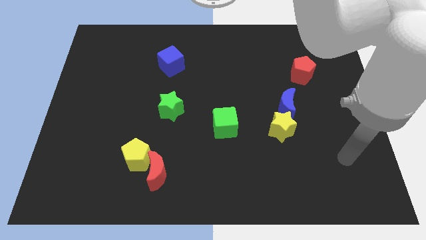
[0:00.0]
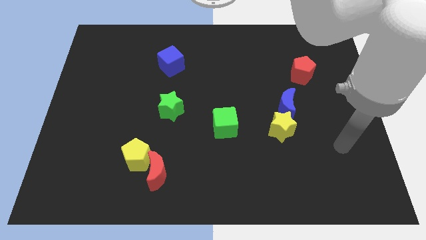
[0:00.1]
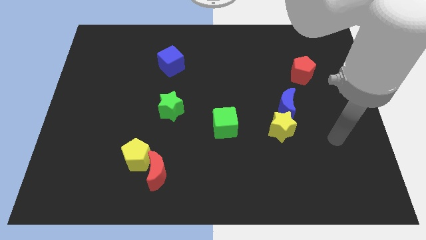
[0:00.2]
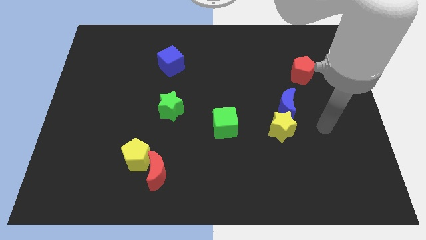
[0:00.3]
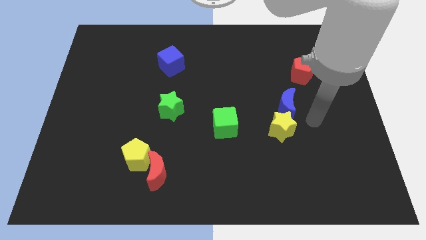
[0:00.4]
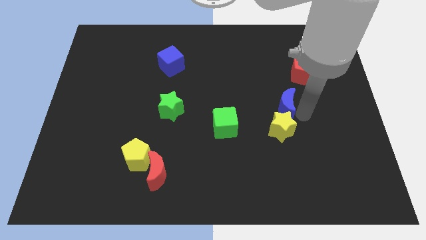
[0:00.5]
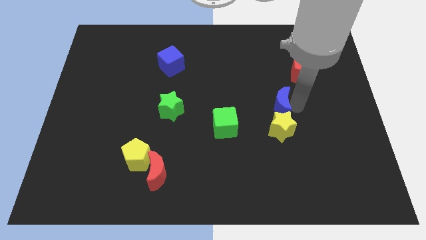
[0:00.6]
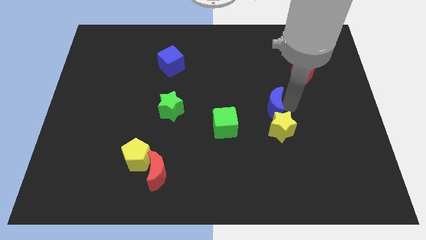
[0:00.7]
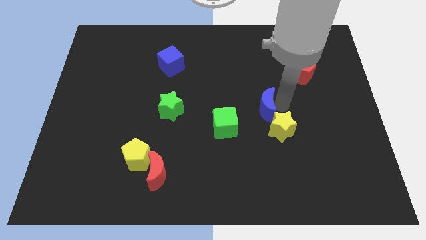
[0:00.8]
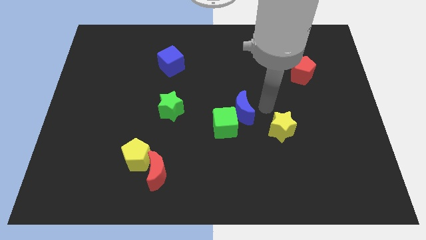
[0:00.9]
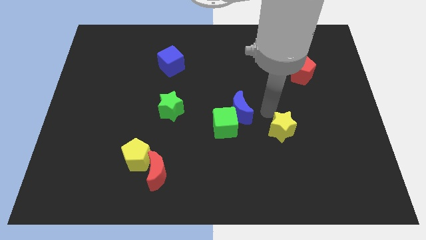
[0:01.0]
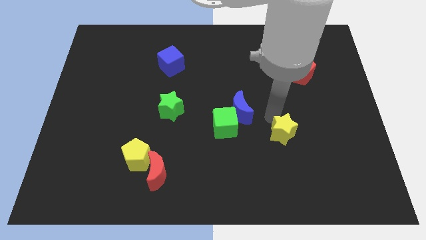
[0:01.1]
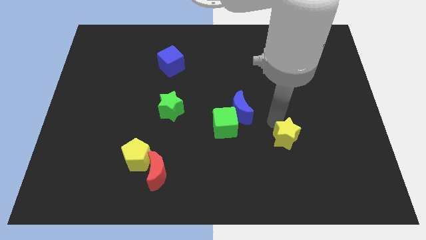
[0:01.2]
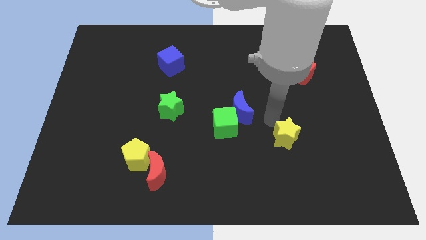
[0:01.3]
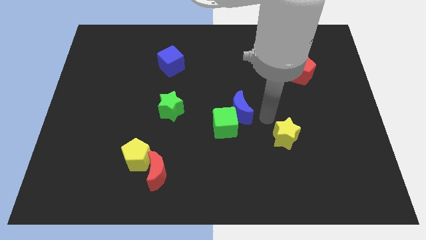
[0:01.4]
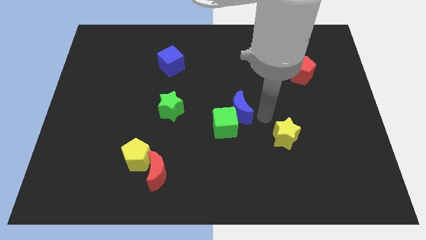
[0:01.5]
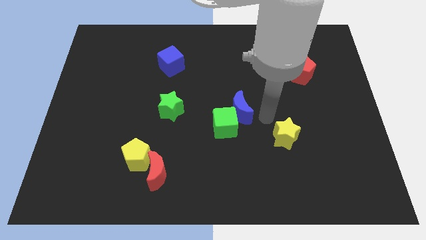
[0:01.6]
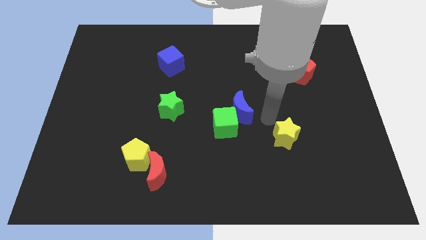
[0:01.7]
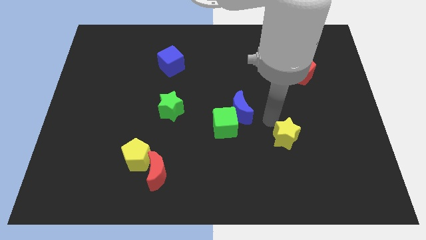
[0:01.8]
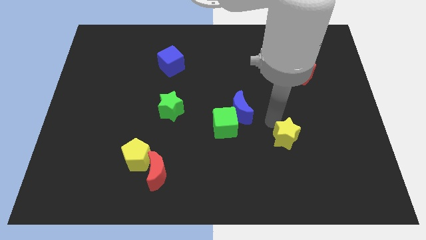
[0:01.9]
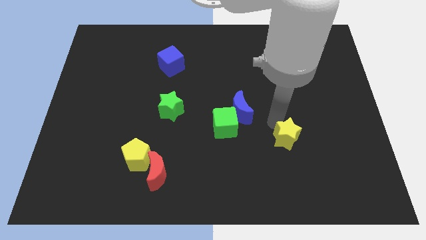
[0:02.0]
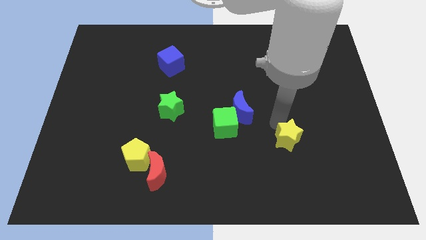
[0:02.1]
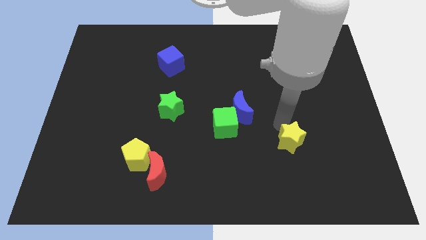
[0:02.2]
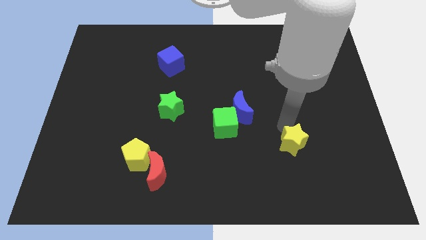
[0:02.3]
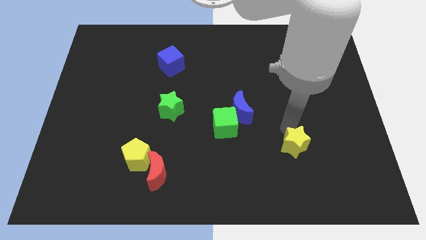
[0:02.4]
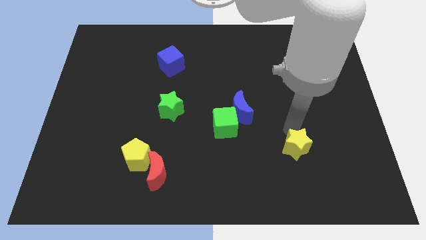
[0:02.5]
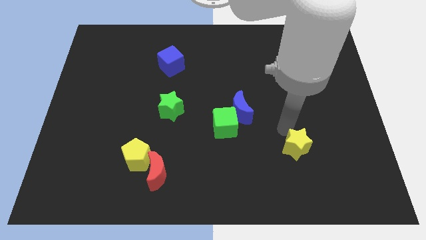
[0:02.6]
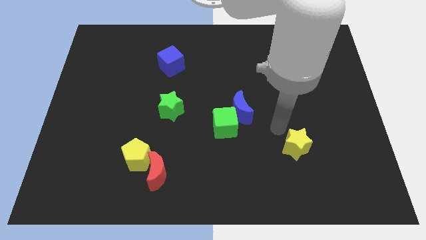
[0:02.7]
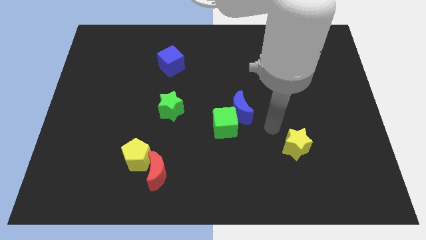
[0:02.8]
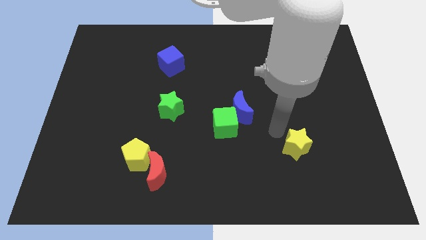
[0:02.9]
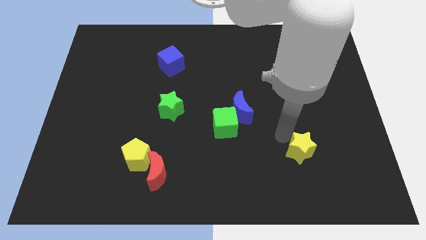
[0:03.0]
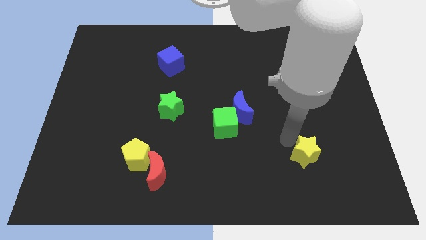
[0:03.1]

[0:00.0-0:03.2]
slide the yellow star a little down and right diagonally

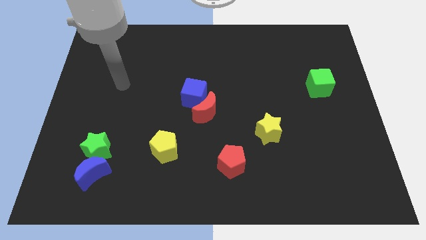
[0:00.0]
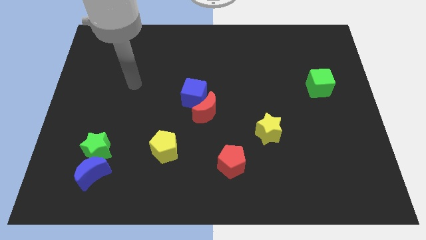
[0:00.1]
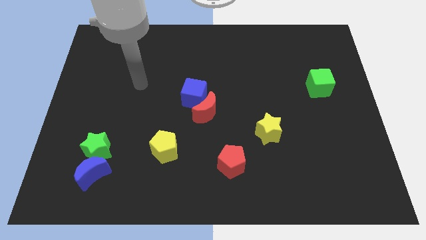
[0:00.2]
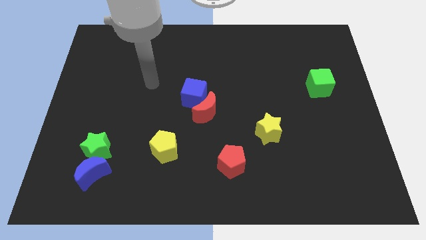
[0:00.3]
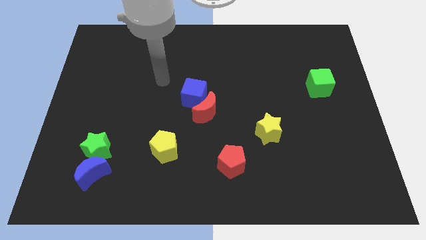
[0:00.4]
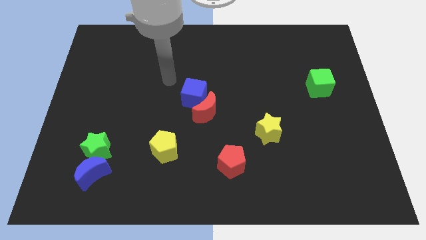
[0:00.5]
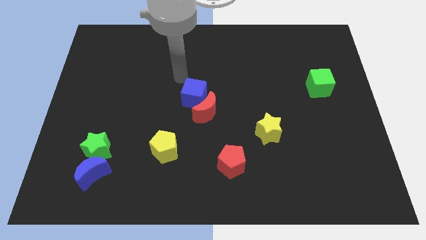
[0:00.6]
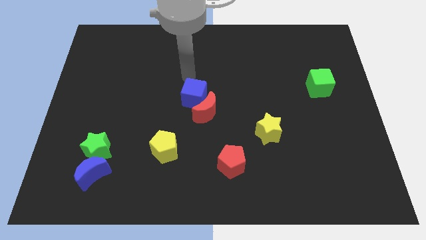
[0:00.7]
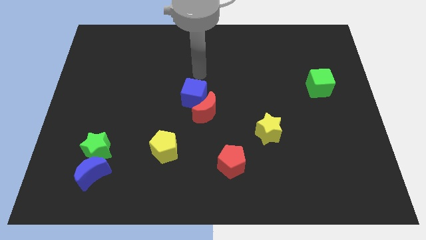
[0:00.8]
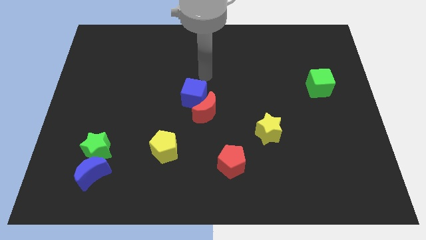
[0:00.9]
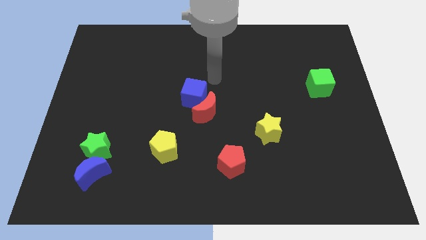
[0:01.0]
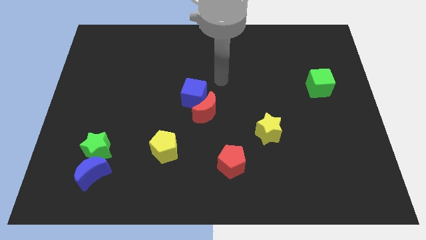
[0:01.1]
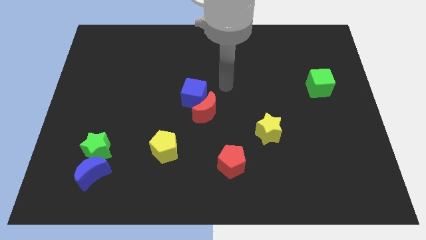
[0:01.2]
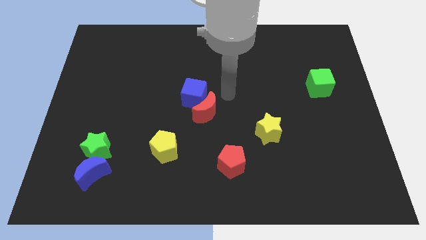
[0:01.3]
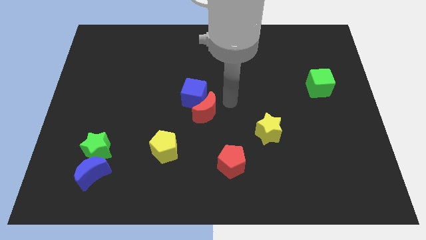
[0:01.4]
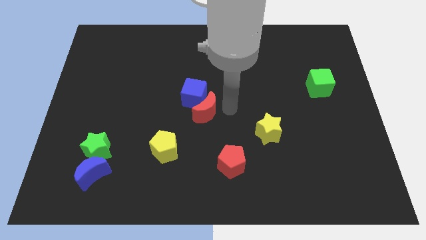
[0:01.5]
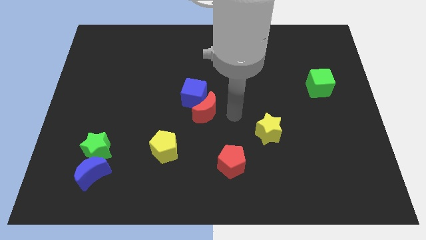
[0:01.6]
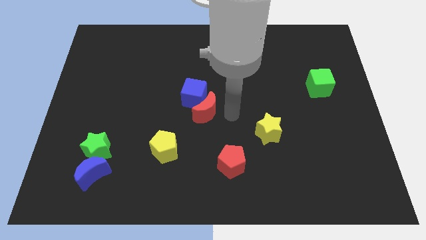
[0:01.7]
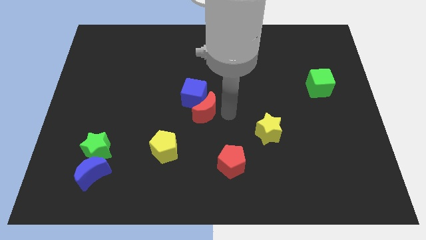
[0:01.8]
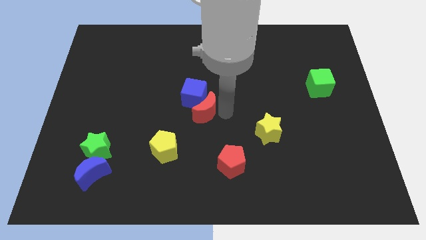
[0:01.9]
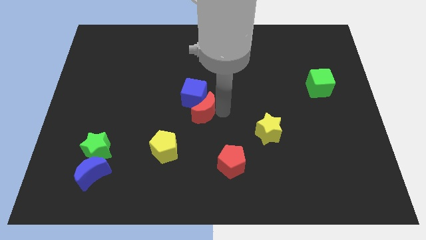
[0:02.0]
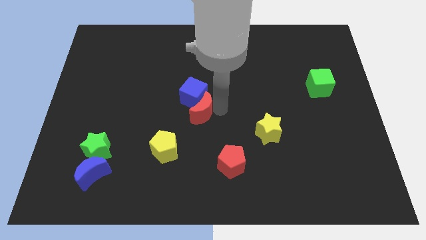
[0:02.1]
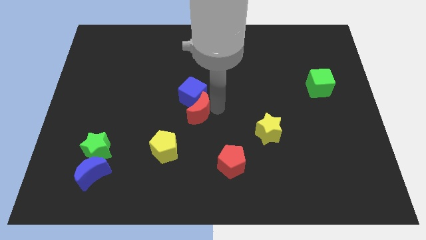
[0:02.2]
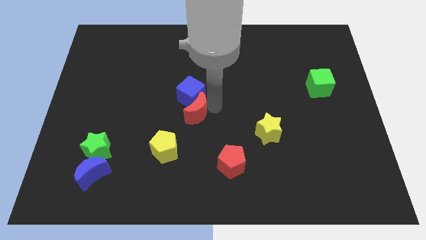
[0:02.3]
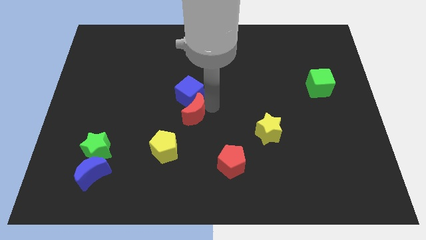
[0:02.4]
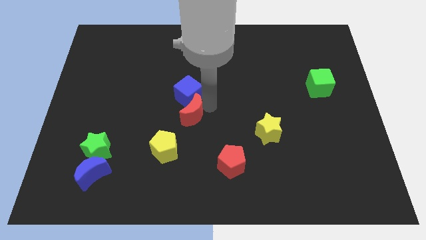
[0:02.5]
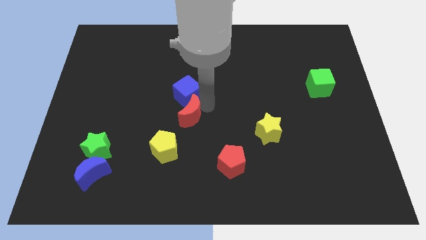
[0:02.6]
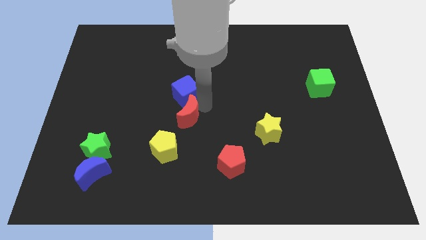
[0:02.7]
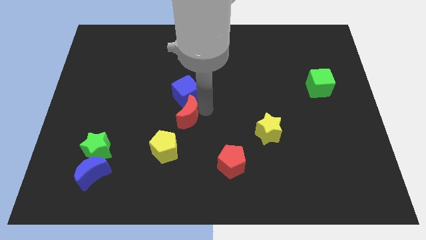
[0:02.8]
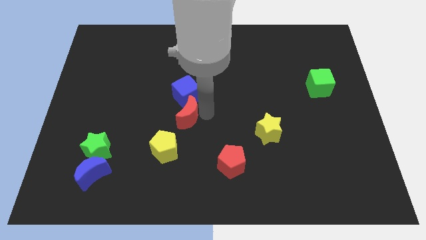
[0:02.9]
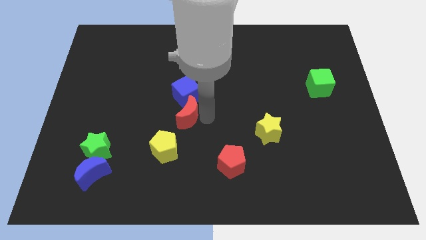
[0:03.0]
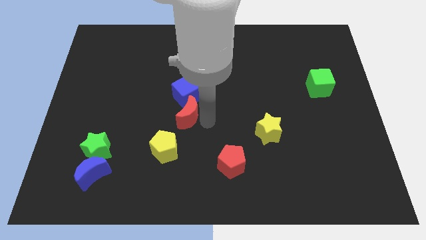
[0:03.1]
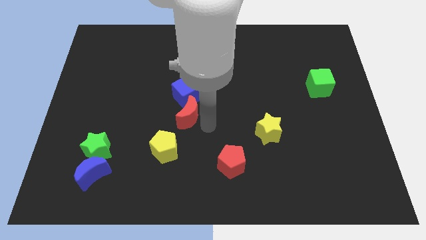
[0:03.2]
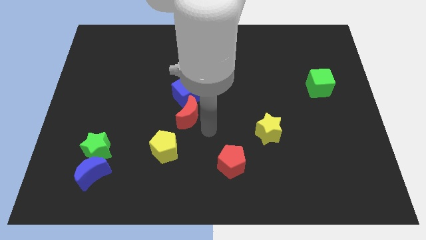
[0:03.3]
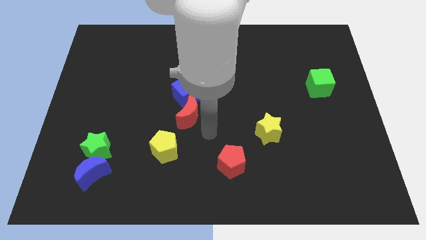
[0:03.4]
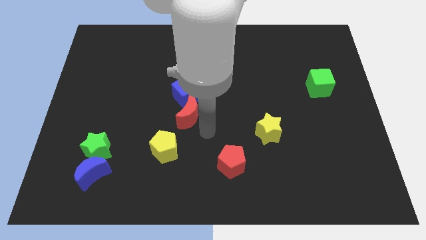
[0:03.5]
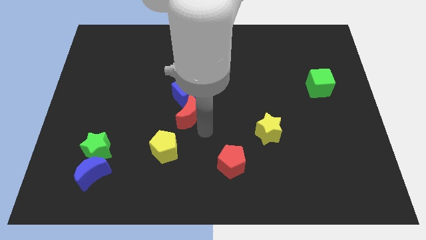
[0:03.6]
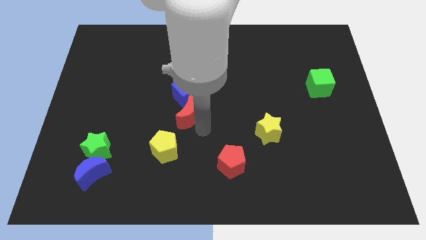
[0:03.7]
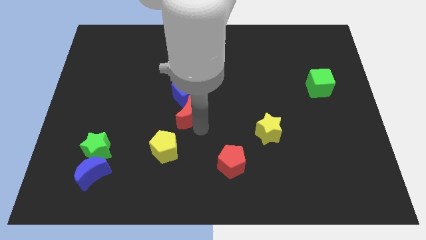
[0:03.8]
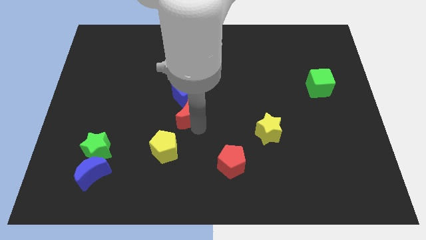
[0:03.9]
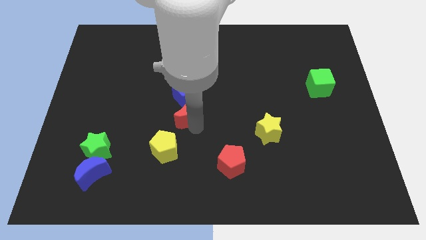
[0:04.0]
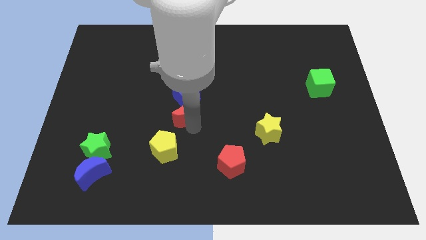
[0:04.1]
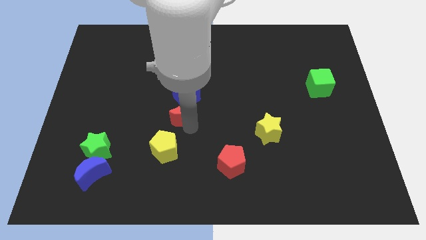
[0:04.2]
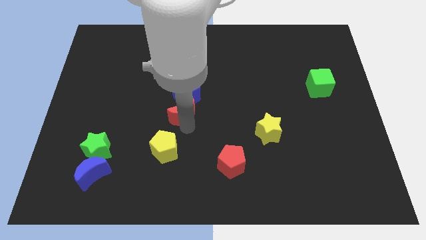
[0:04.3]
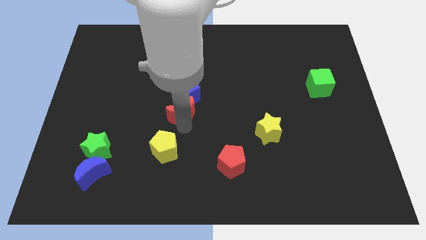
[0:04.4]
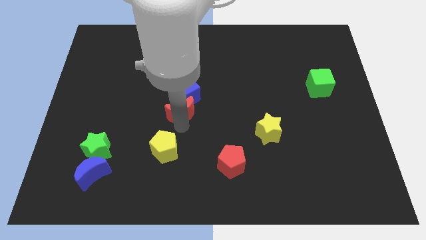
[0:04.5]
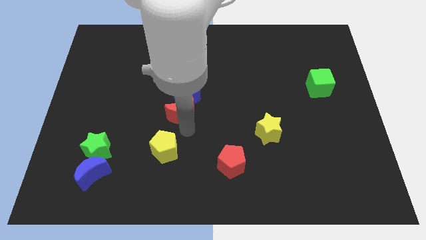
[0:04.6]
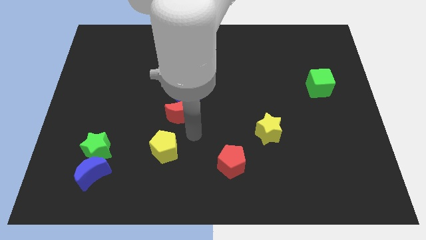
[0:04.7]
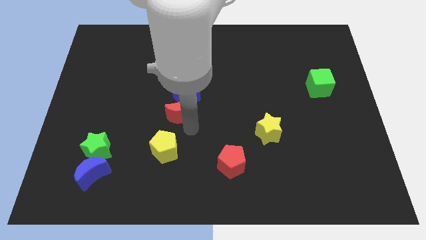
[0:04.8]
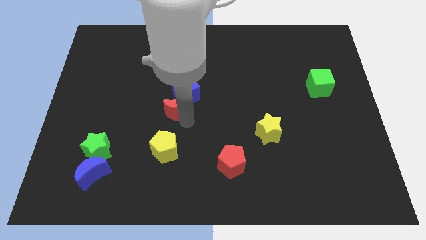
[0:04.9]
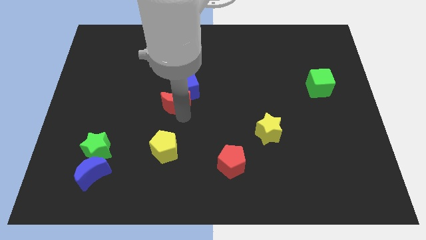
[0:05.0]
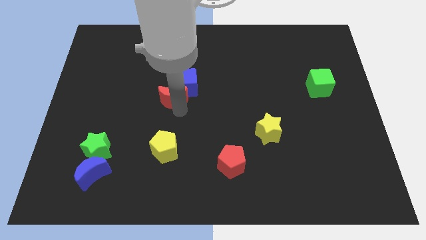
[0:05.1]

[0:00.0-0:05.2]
slide the red moon up and then left slightly
